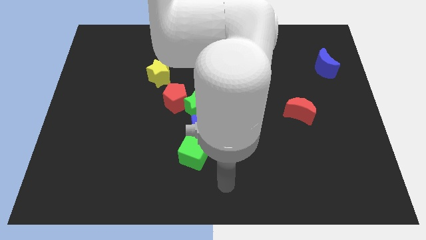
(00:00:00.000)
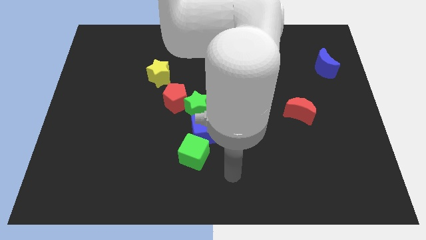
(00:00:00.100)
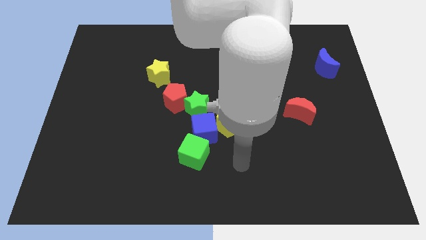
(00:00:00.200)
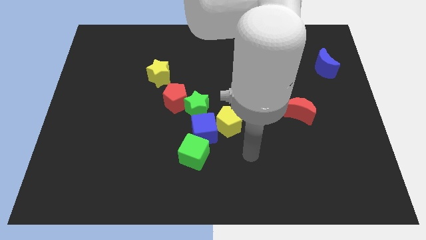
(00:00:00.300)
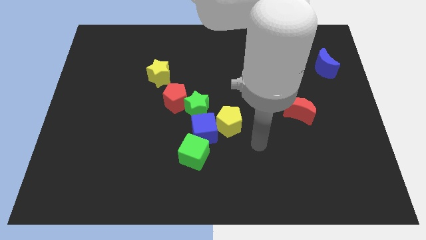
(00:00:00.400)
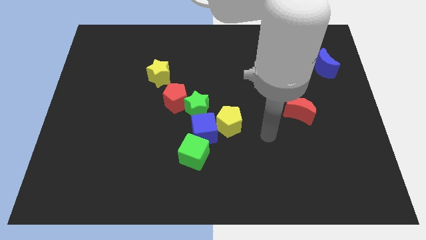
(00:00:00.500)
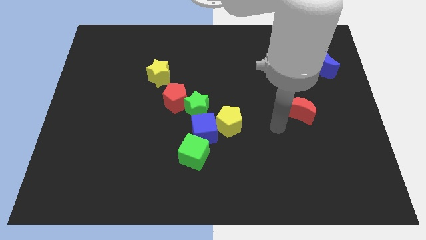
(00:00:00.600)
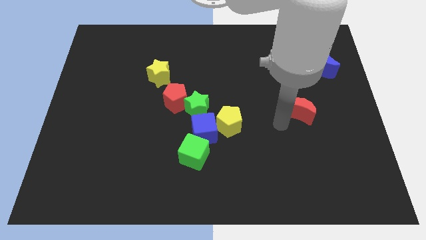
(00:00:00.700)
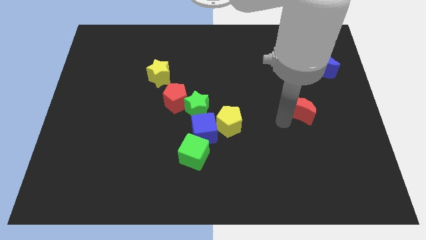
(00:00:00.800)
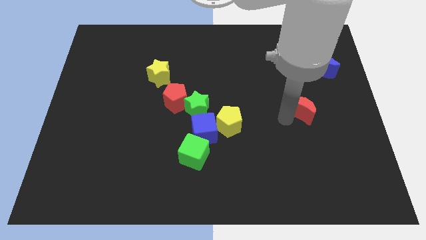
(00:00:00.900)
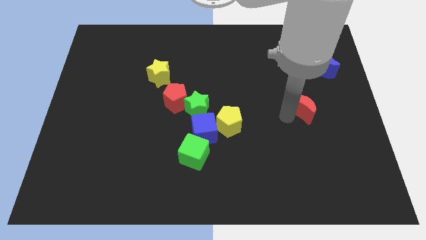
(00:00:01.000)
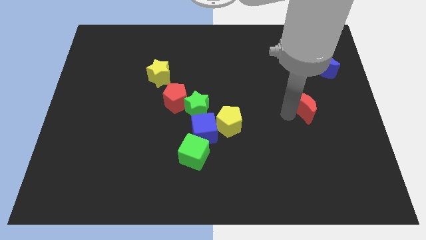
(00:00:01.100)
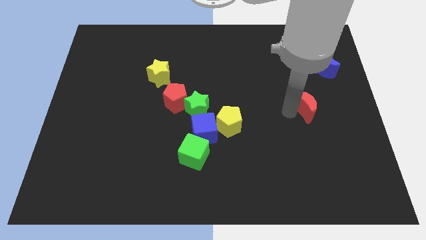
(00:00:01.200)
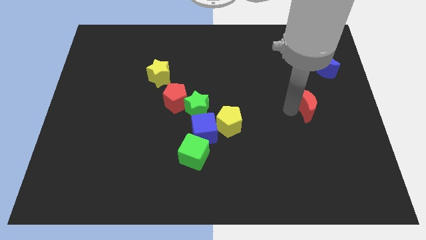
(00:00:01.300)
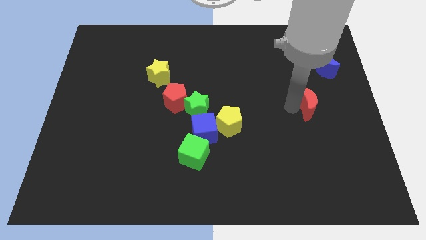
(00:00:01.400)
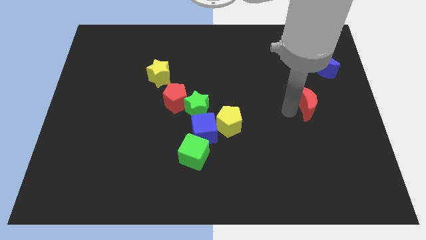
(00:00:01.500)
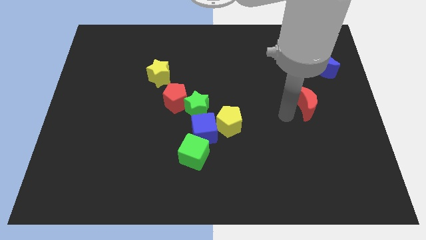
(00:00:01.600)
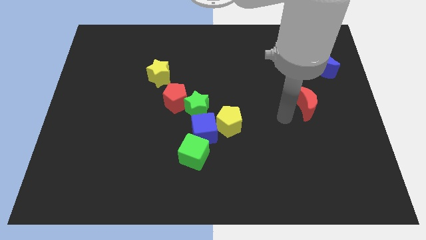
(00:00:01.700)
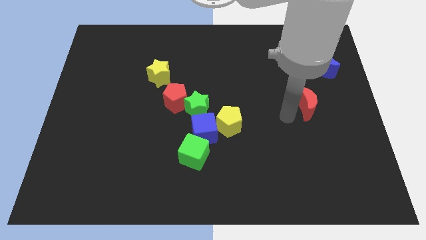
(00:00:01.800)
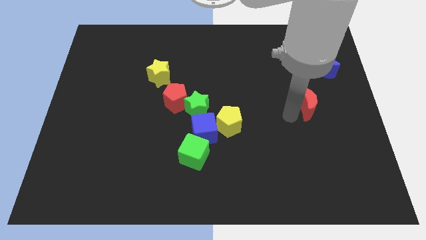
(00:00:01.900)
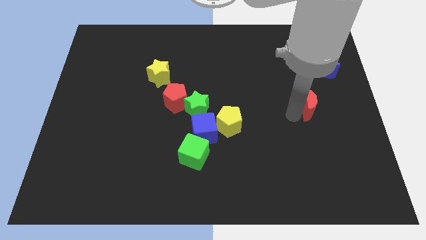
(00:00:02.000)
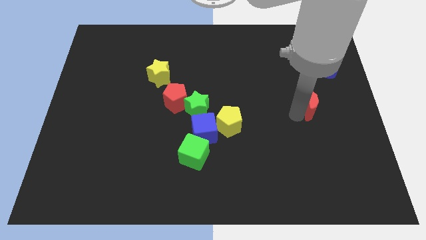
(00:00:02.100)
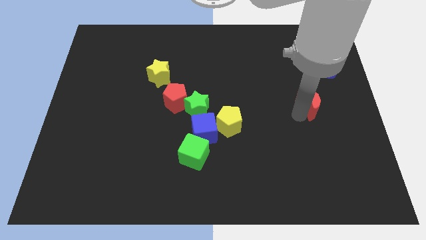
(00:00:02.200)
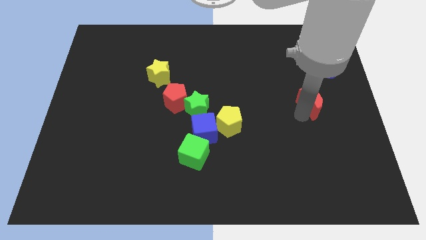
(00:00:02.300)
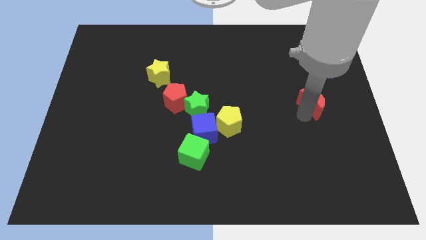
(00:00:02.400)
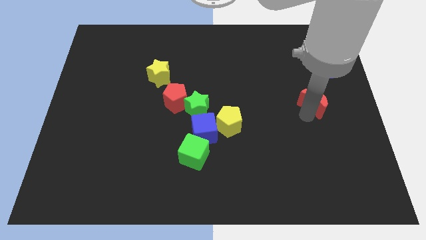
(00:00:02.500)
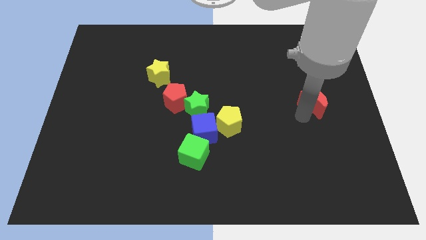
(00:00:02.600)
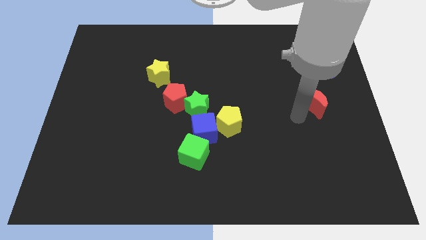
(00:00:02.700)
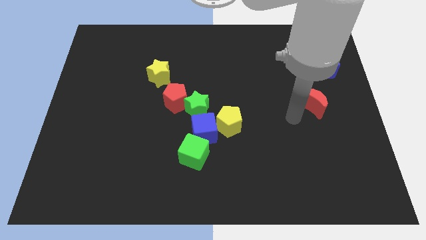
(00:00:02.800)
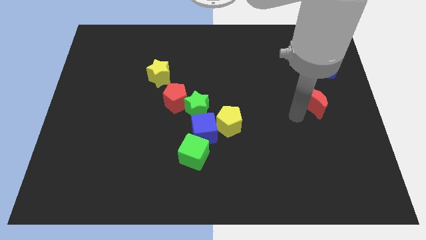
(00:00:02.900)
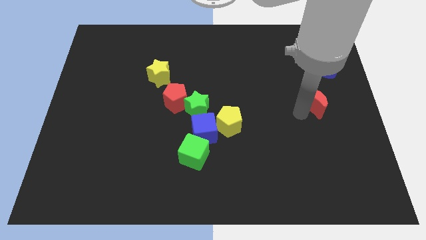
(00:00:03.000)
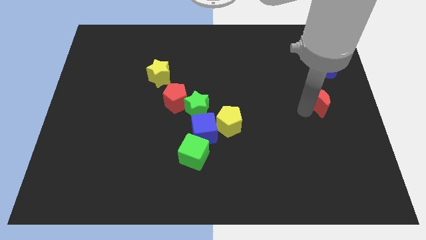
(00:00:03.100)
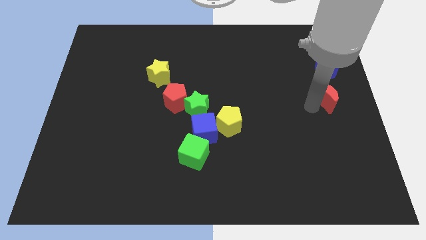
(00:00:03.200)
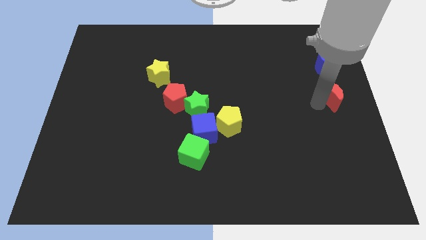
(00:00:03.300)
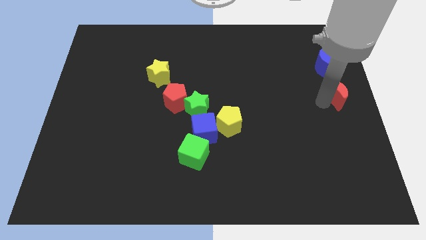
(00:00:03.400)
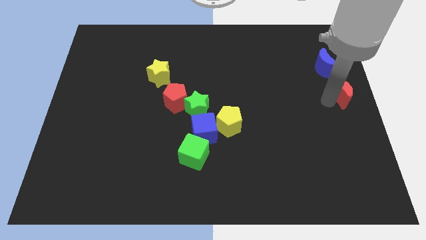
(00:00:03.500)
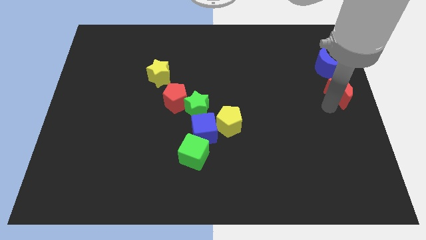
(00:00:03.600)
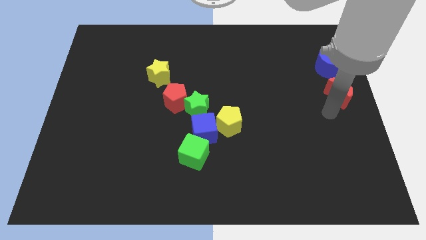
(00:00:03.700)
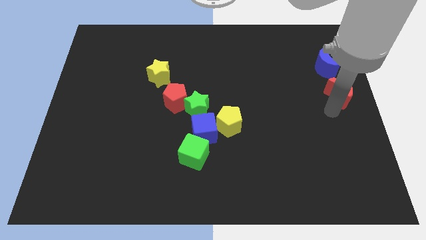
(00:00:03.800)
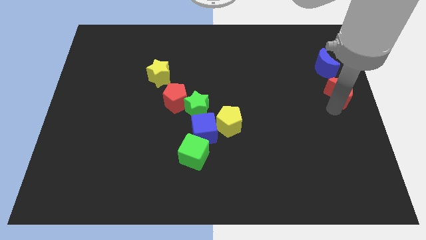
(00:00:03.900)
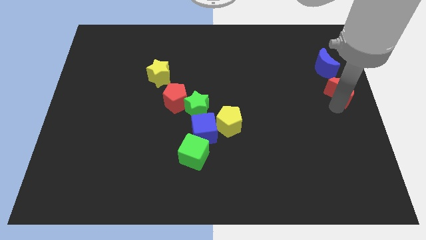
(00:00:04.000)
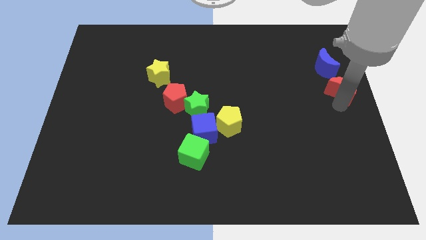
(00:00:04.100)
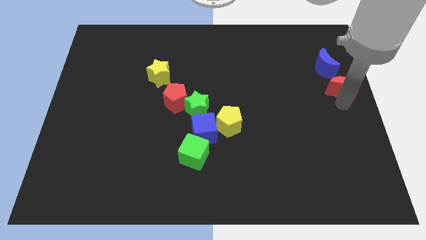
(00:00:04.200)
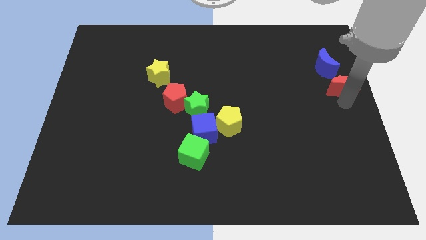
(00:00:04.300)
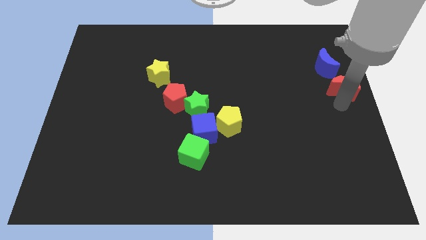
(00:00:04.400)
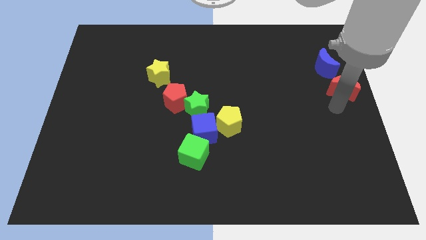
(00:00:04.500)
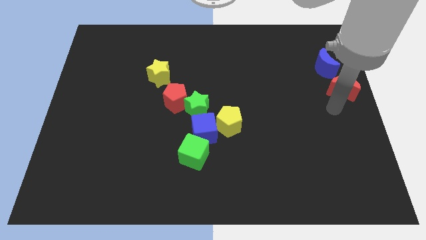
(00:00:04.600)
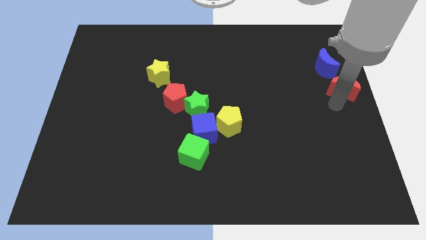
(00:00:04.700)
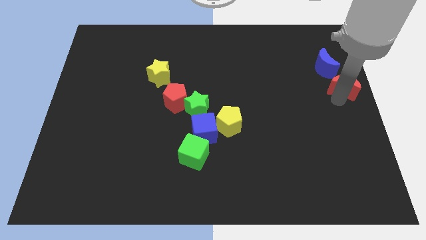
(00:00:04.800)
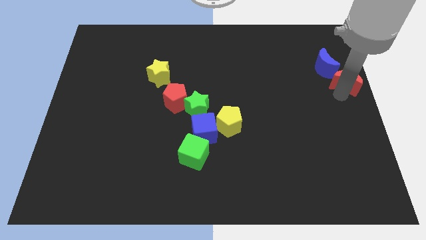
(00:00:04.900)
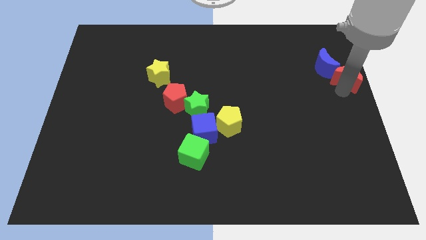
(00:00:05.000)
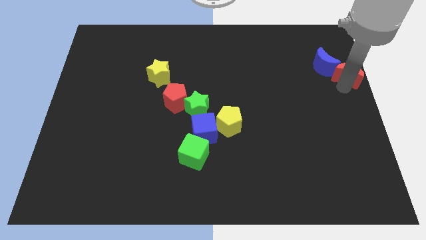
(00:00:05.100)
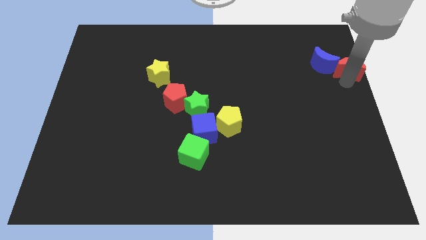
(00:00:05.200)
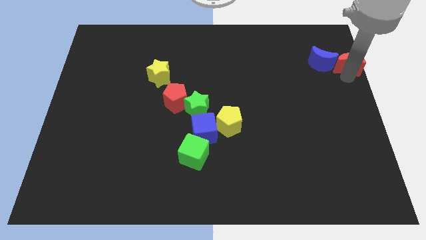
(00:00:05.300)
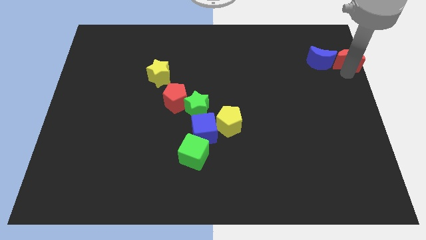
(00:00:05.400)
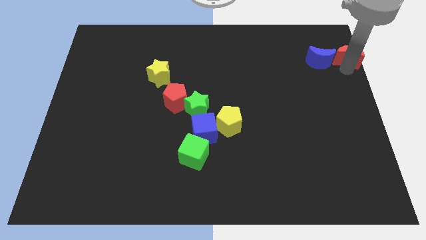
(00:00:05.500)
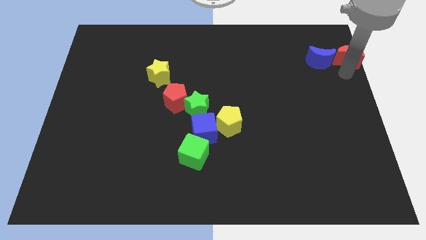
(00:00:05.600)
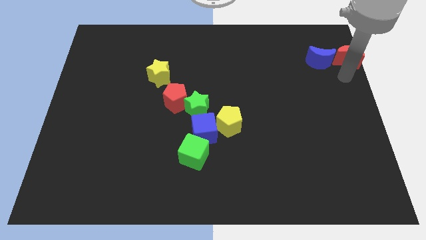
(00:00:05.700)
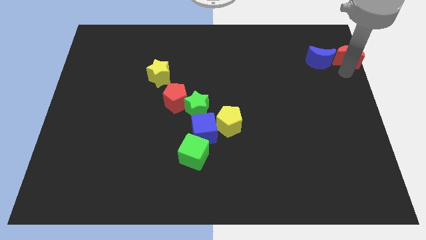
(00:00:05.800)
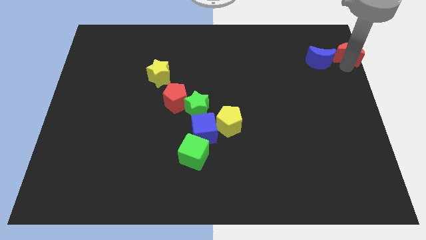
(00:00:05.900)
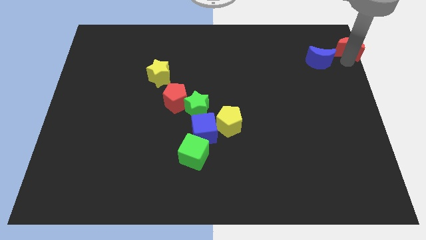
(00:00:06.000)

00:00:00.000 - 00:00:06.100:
move the red moon to the top right corner
